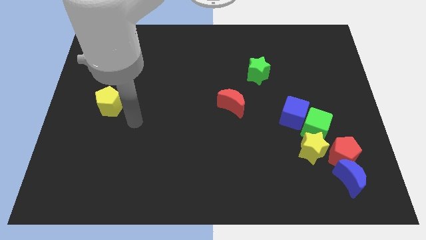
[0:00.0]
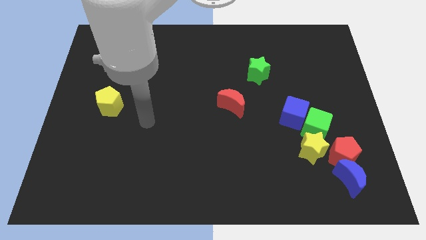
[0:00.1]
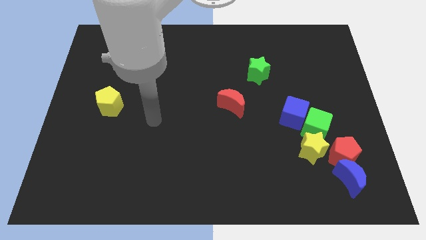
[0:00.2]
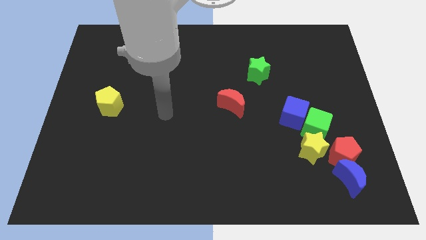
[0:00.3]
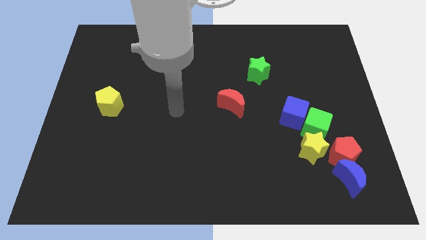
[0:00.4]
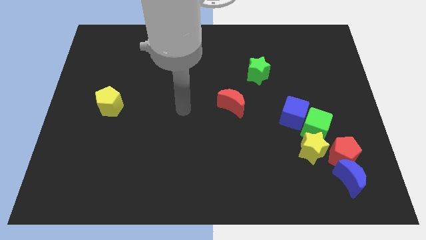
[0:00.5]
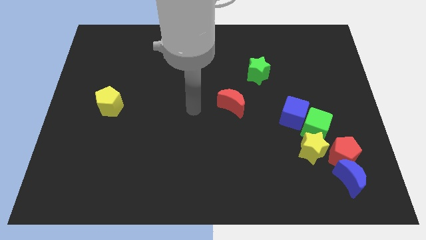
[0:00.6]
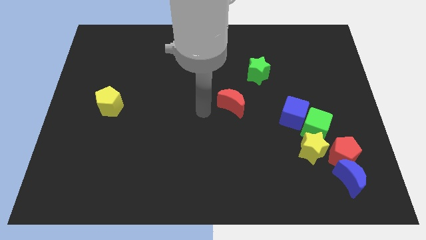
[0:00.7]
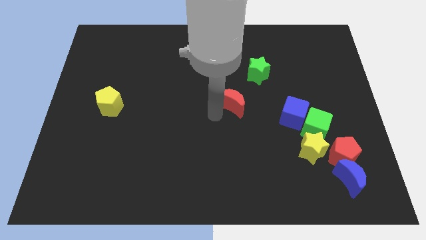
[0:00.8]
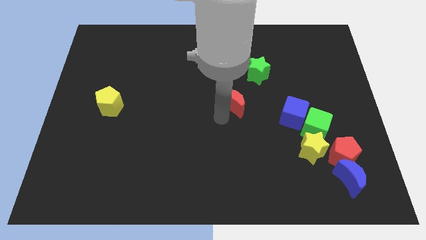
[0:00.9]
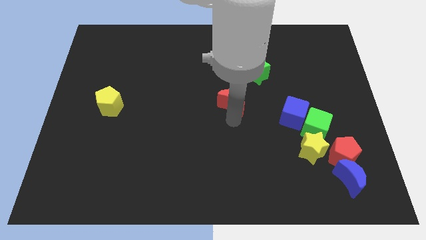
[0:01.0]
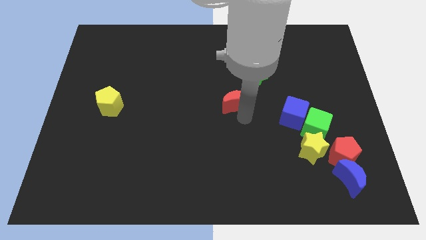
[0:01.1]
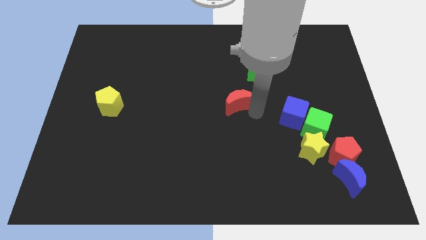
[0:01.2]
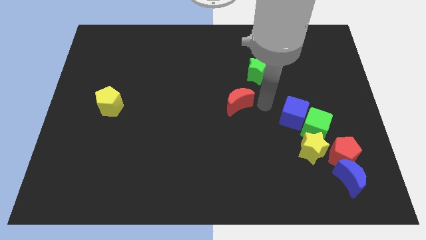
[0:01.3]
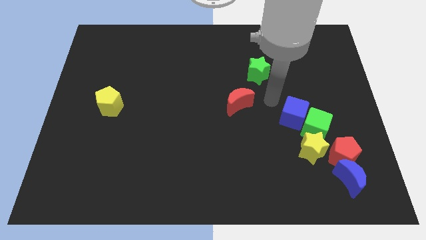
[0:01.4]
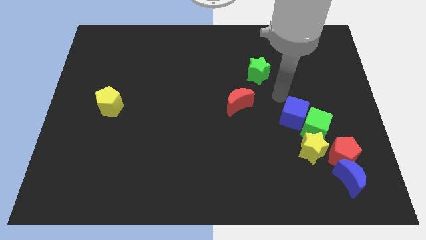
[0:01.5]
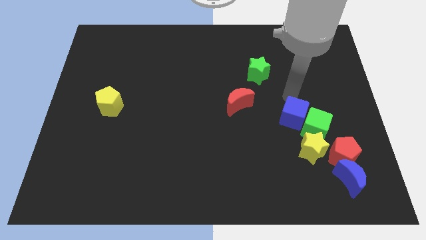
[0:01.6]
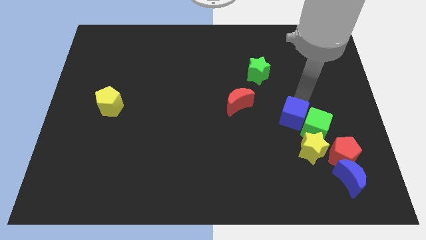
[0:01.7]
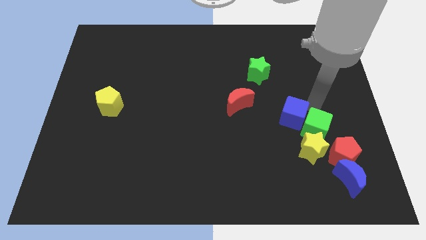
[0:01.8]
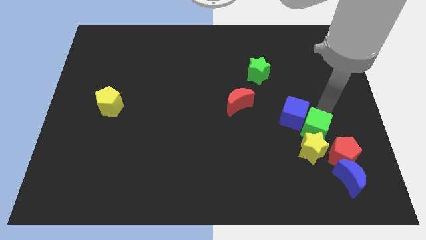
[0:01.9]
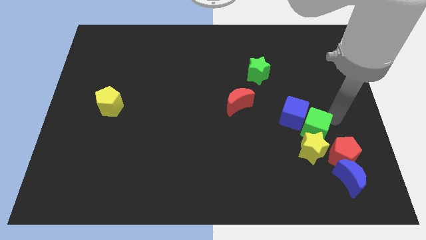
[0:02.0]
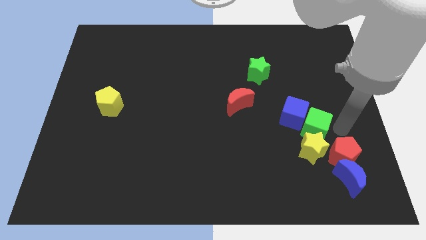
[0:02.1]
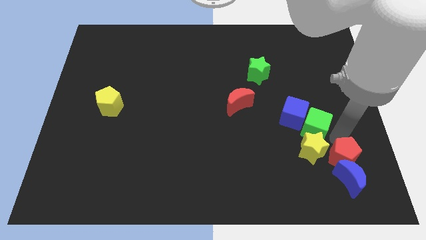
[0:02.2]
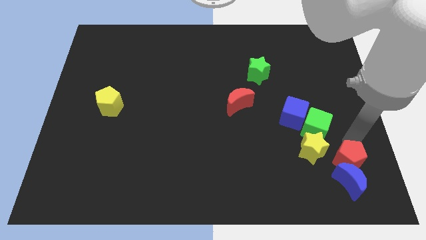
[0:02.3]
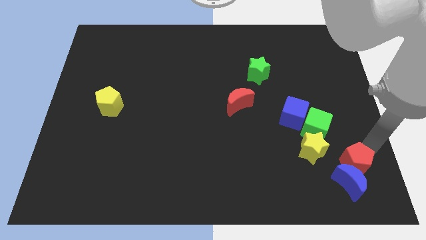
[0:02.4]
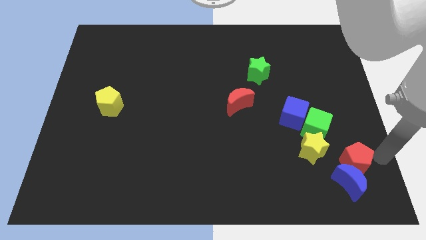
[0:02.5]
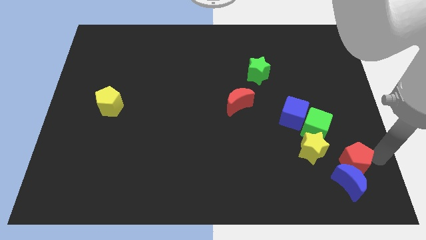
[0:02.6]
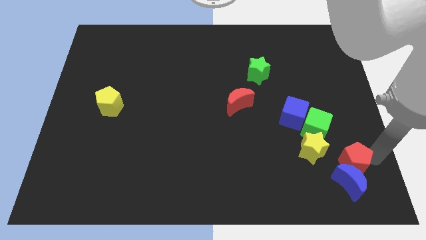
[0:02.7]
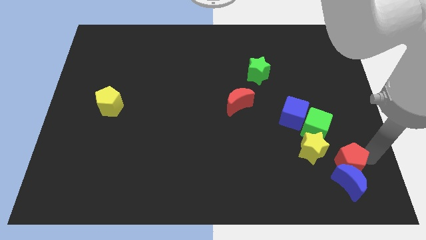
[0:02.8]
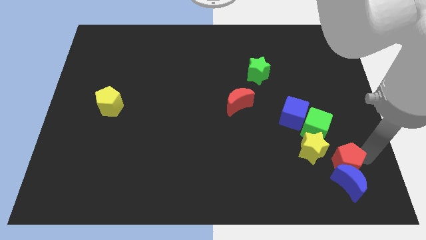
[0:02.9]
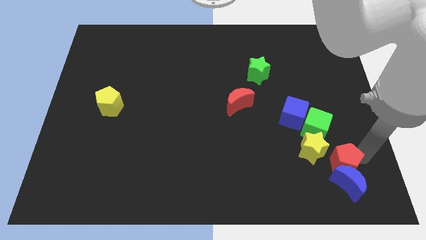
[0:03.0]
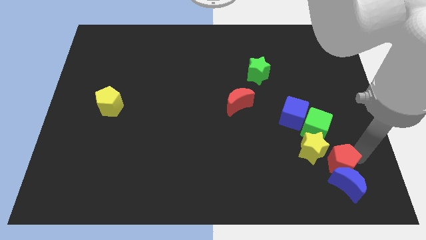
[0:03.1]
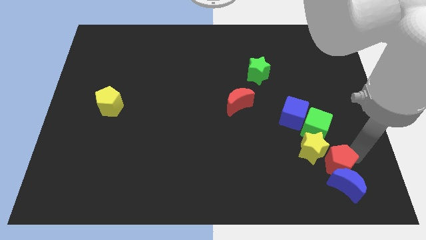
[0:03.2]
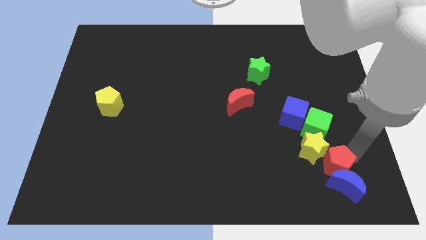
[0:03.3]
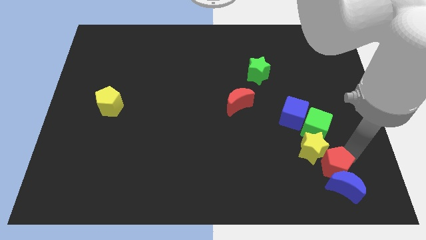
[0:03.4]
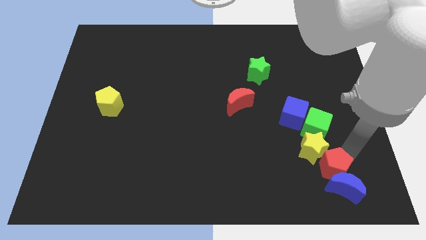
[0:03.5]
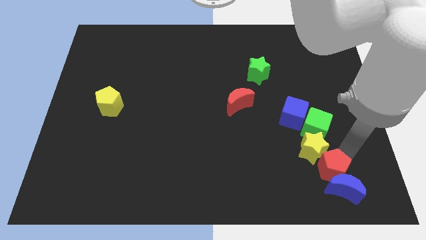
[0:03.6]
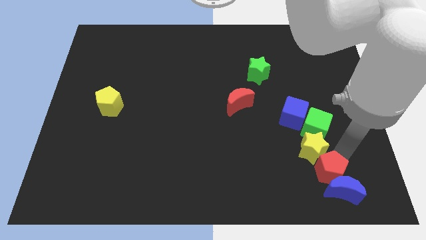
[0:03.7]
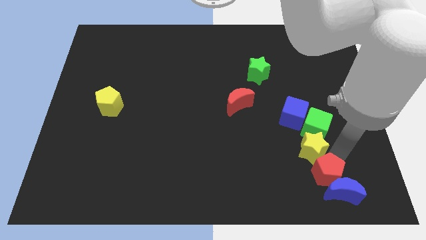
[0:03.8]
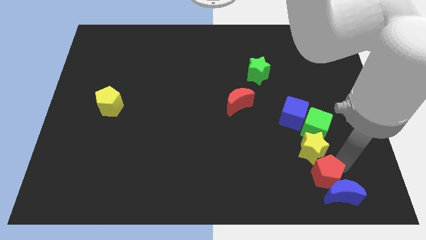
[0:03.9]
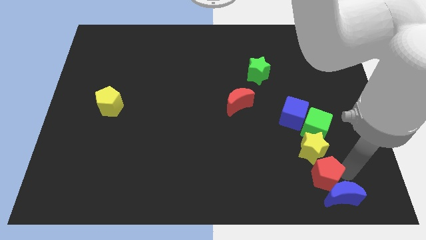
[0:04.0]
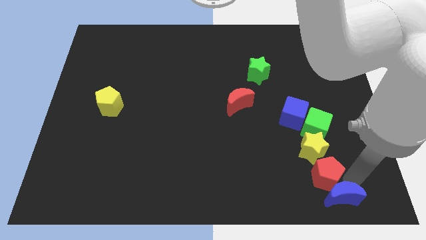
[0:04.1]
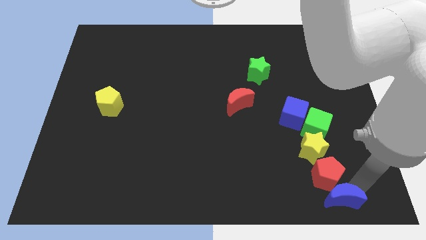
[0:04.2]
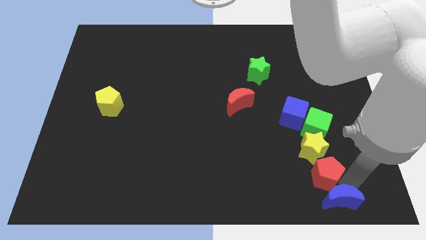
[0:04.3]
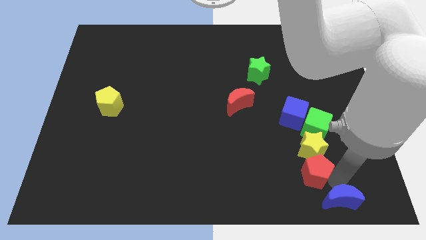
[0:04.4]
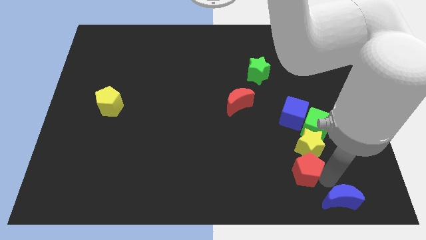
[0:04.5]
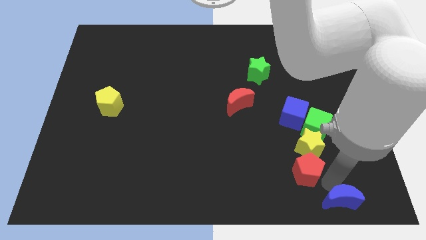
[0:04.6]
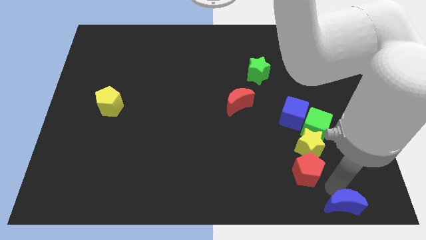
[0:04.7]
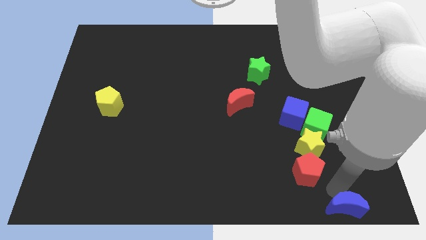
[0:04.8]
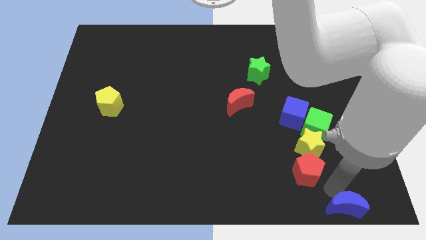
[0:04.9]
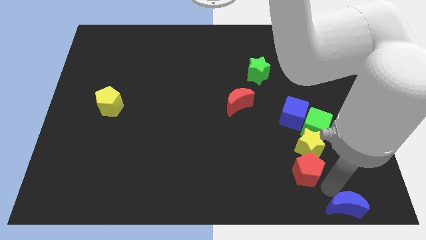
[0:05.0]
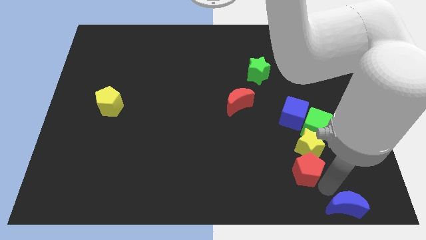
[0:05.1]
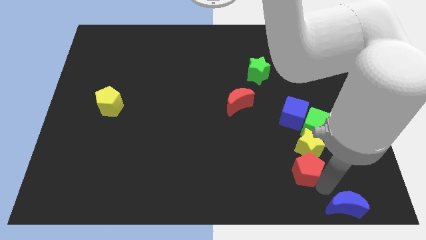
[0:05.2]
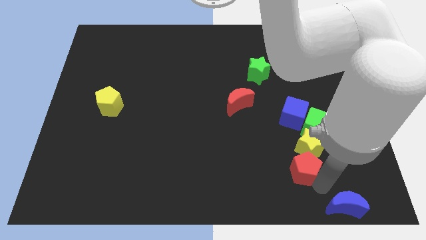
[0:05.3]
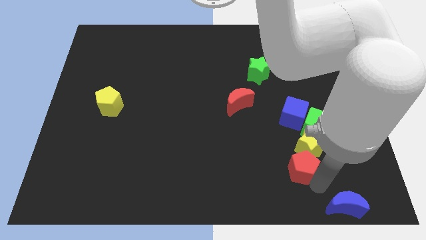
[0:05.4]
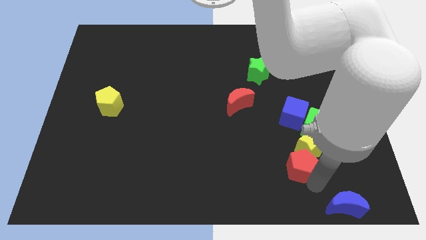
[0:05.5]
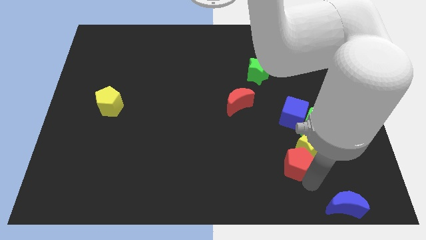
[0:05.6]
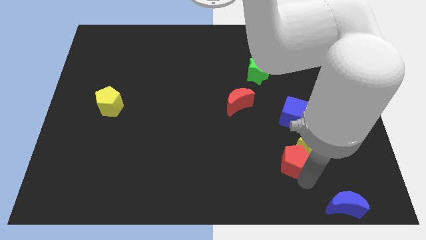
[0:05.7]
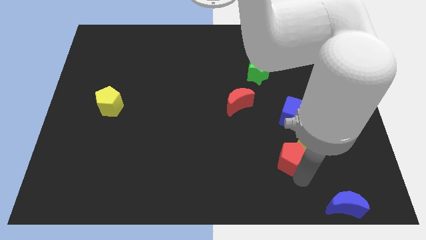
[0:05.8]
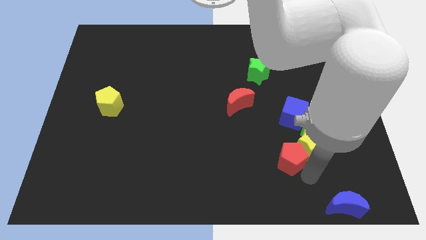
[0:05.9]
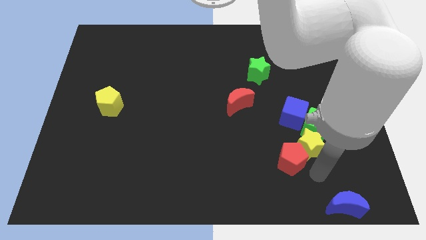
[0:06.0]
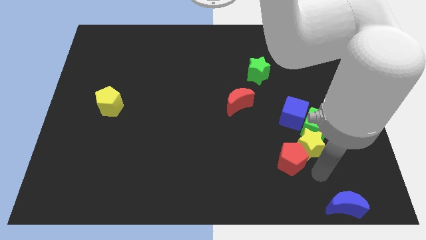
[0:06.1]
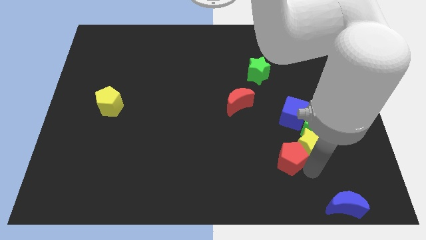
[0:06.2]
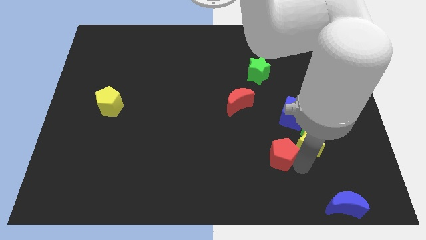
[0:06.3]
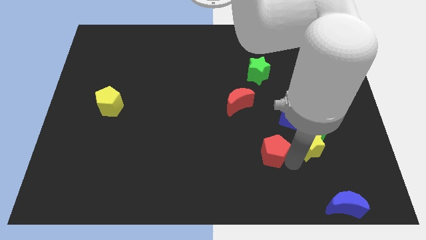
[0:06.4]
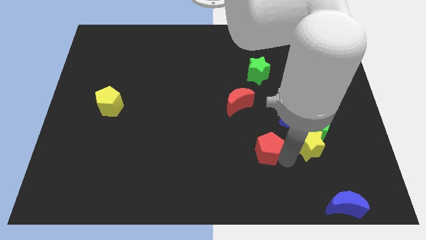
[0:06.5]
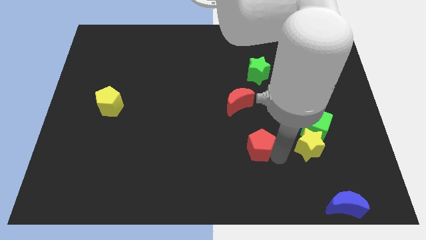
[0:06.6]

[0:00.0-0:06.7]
push the red pentagon below the red moon

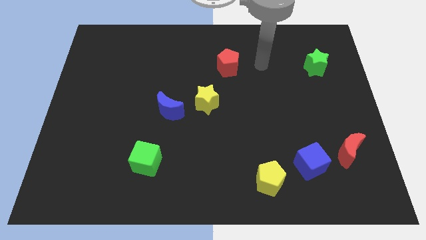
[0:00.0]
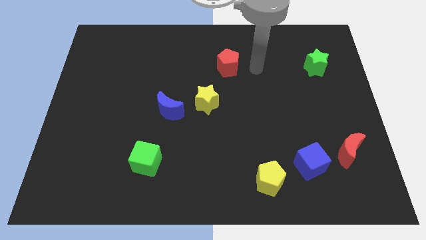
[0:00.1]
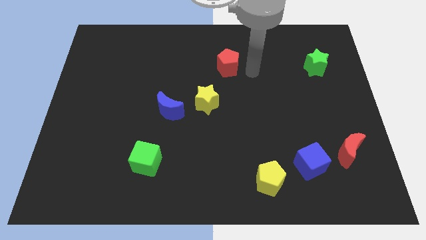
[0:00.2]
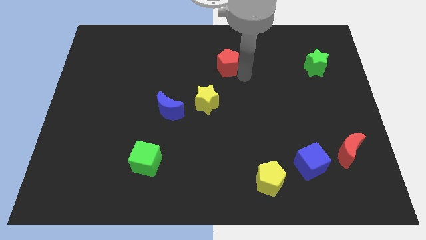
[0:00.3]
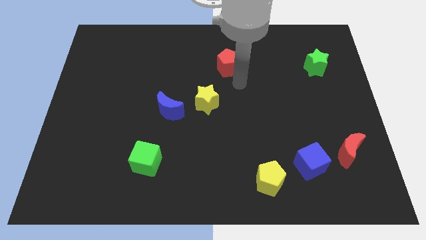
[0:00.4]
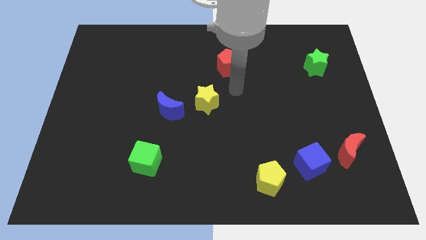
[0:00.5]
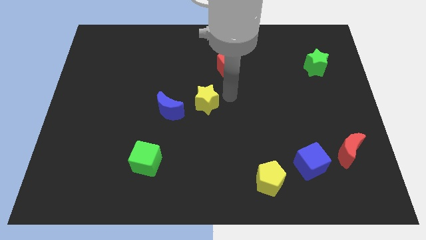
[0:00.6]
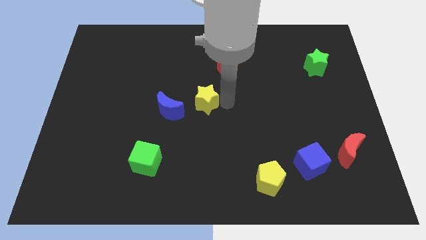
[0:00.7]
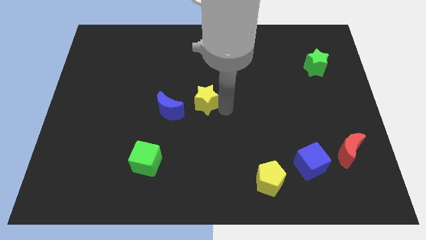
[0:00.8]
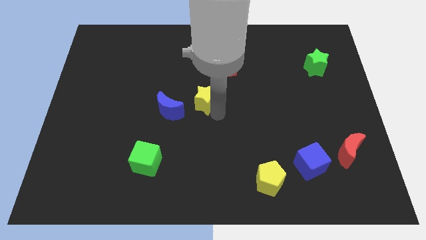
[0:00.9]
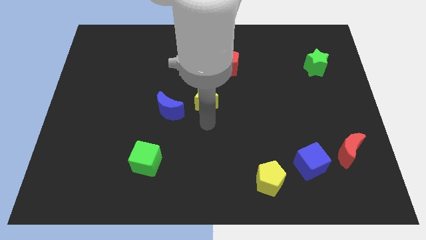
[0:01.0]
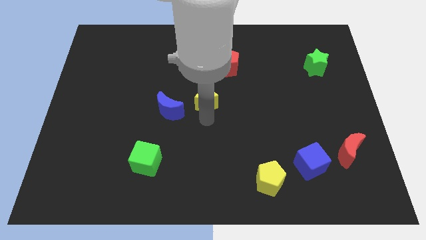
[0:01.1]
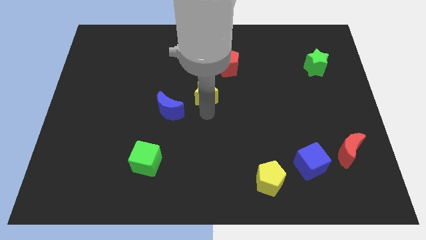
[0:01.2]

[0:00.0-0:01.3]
put the yellow star diagonally down and to the left of the red pentagon
